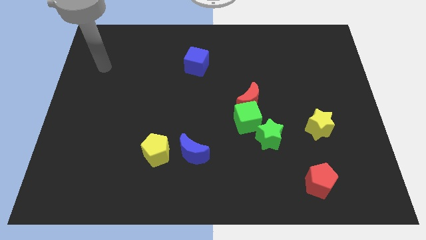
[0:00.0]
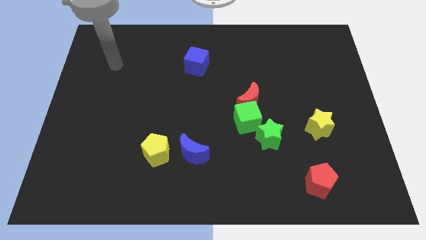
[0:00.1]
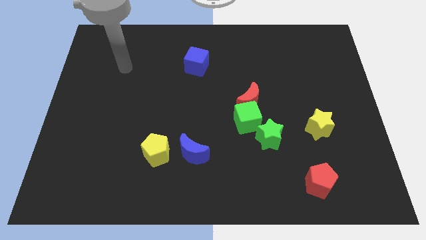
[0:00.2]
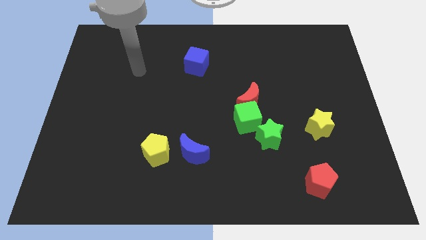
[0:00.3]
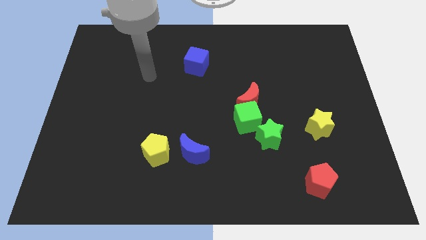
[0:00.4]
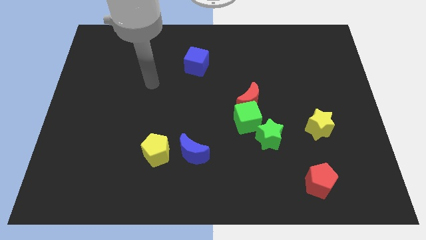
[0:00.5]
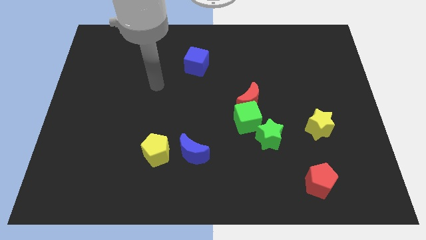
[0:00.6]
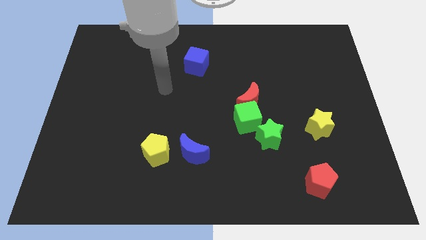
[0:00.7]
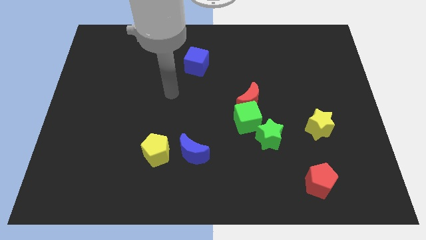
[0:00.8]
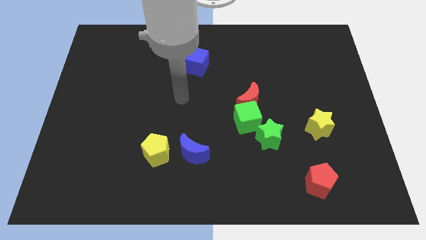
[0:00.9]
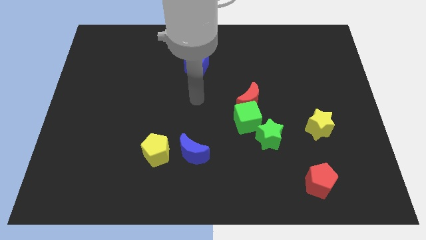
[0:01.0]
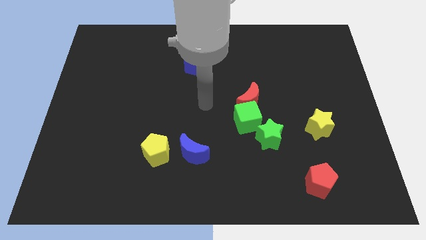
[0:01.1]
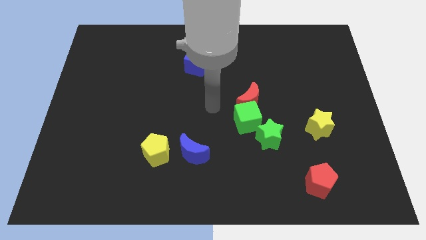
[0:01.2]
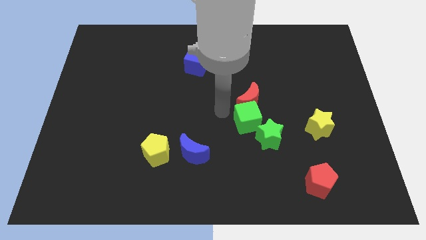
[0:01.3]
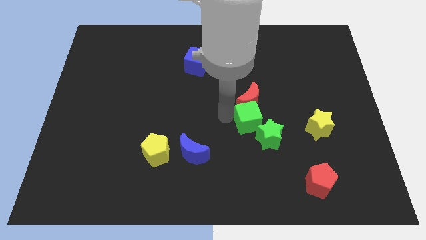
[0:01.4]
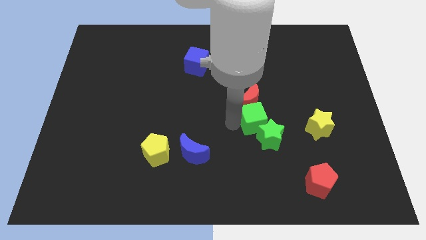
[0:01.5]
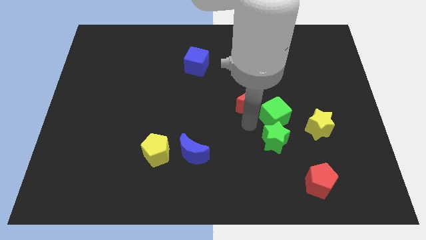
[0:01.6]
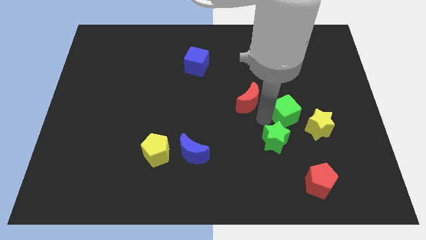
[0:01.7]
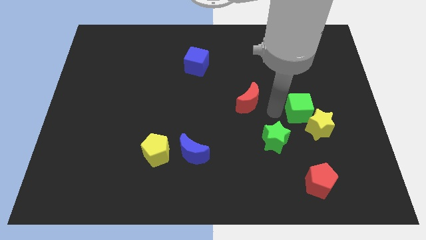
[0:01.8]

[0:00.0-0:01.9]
move the red moon away from the green cube

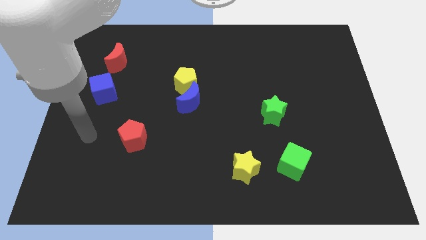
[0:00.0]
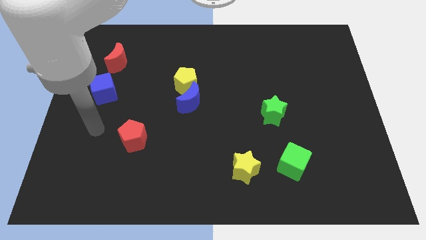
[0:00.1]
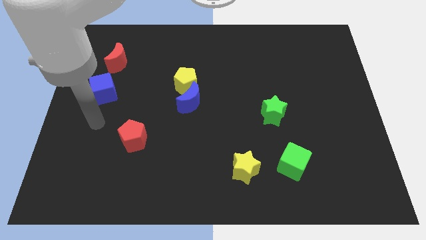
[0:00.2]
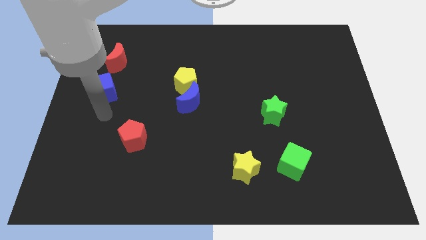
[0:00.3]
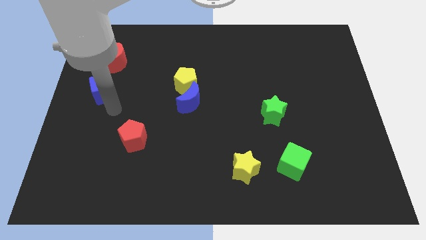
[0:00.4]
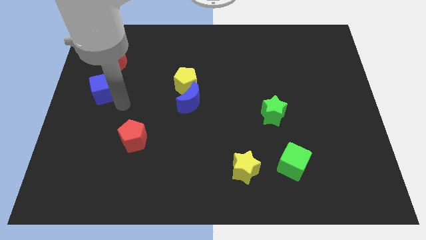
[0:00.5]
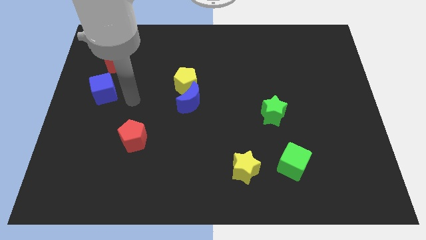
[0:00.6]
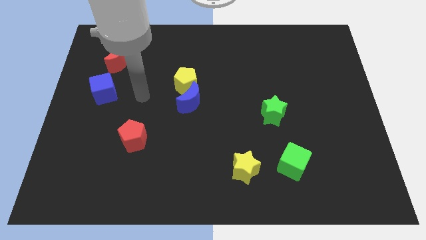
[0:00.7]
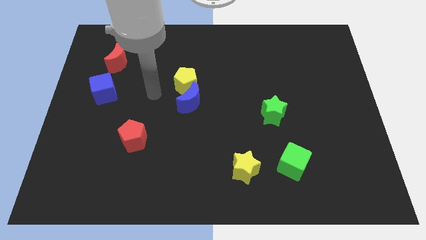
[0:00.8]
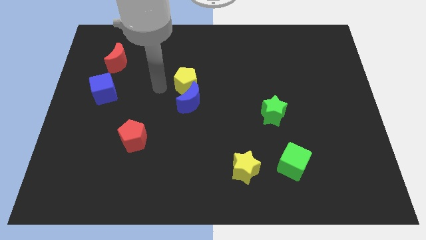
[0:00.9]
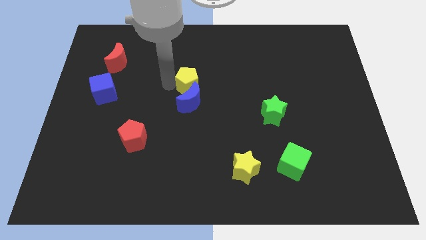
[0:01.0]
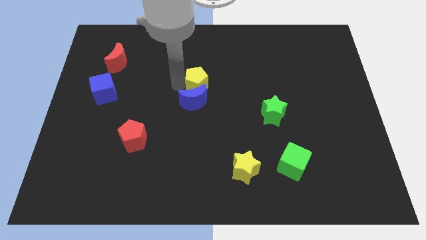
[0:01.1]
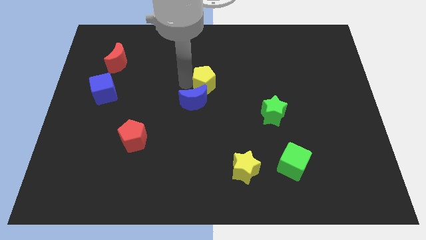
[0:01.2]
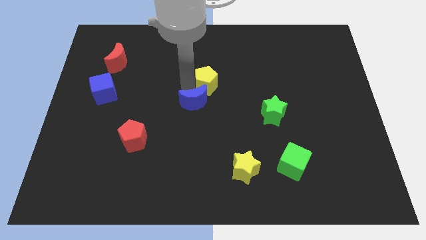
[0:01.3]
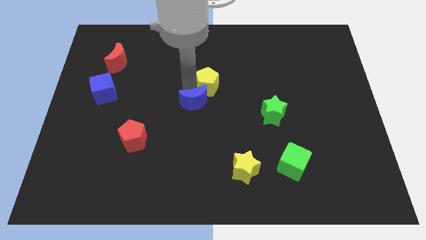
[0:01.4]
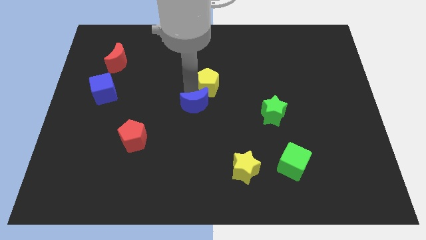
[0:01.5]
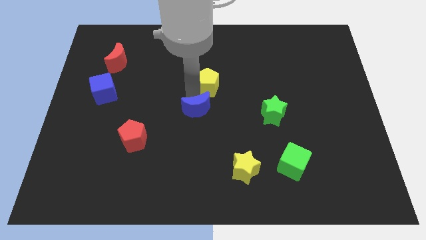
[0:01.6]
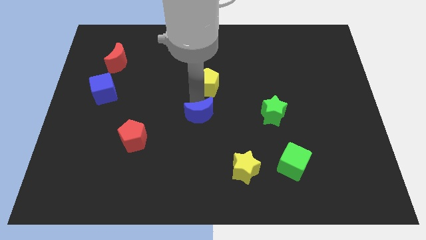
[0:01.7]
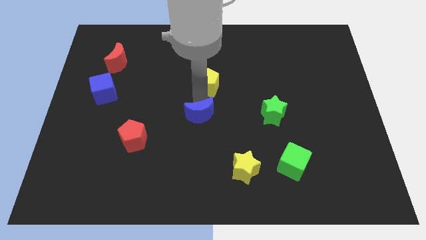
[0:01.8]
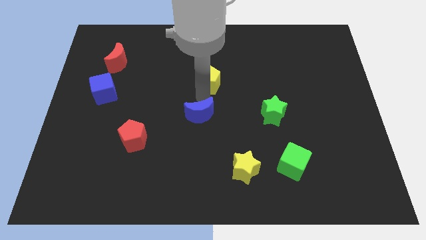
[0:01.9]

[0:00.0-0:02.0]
separate the blue moon from the yellow pentagon

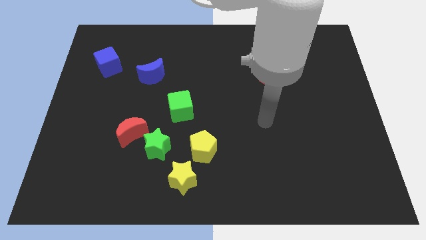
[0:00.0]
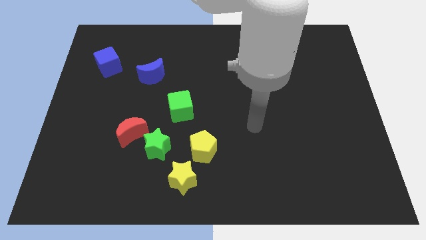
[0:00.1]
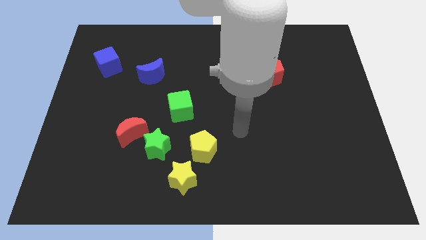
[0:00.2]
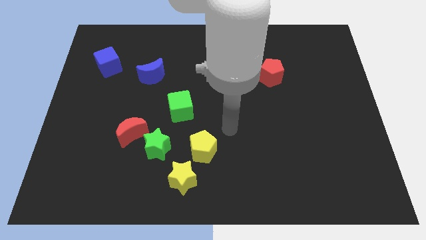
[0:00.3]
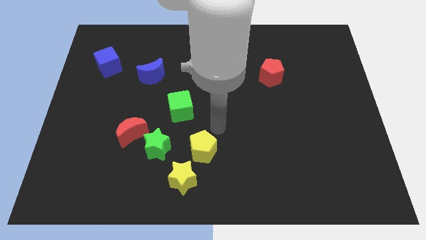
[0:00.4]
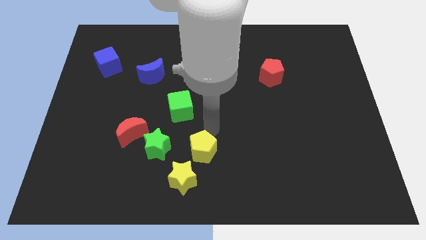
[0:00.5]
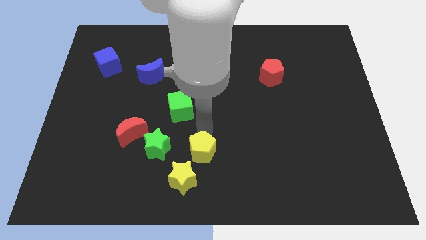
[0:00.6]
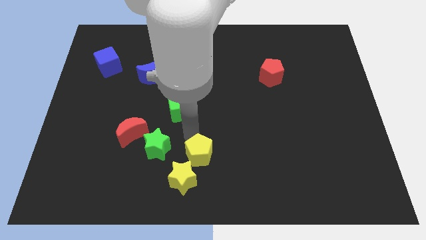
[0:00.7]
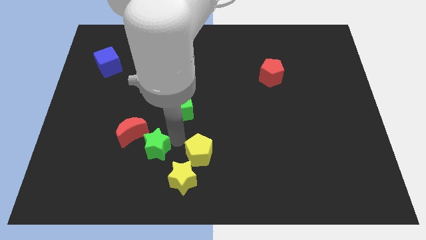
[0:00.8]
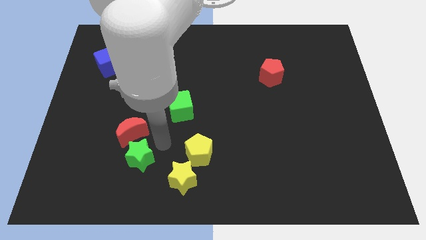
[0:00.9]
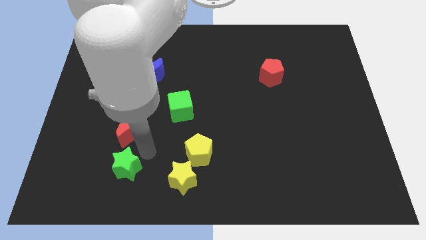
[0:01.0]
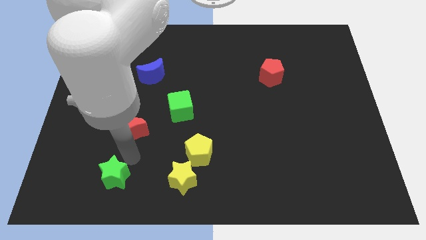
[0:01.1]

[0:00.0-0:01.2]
pull the red moon apart from the green star

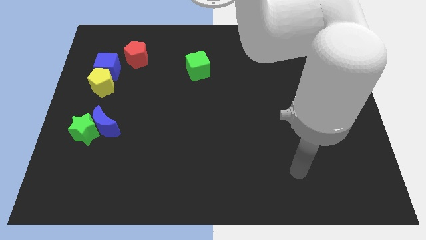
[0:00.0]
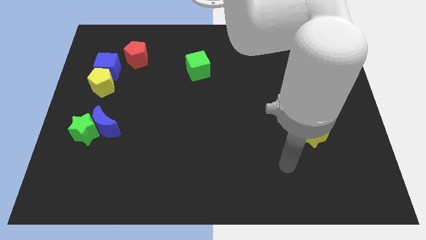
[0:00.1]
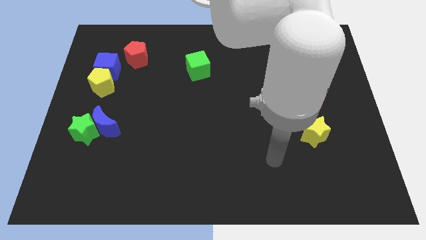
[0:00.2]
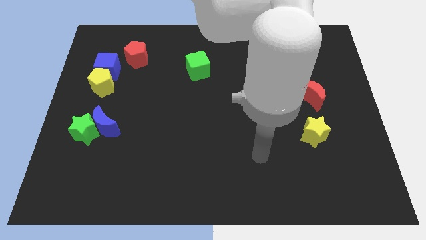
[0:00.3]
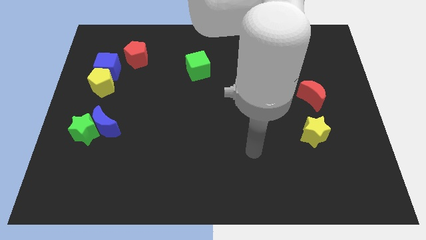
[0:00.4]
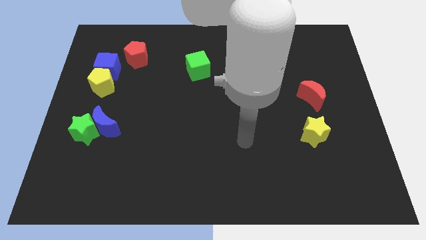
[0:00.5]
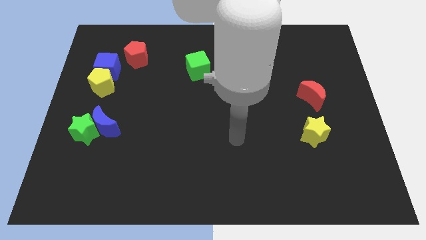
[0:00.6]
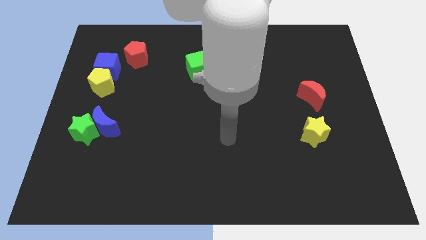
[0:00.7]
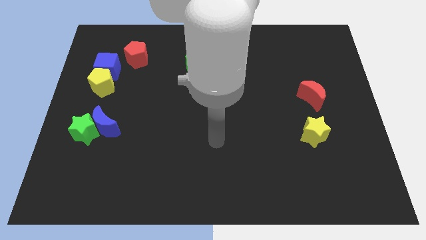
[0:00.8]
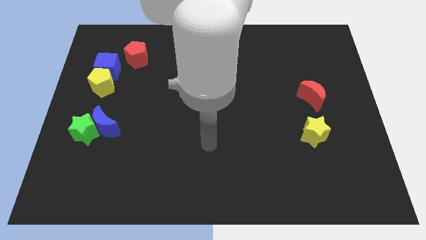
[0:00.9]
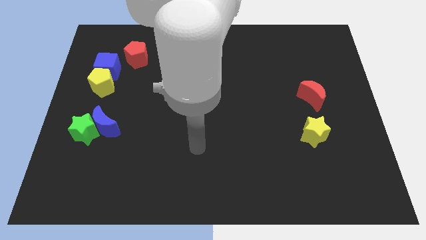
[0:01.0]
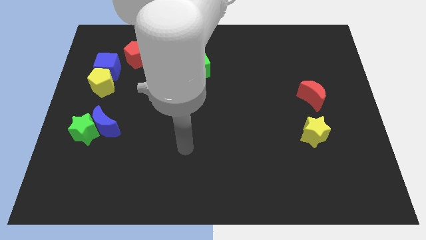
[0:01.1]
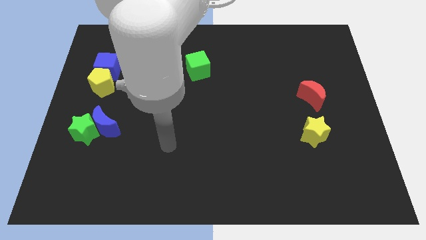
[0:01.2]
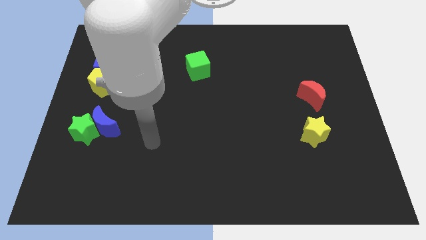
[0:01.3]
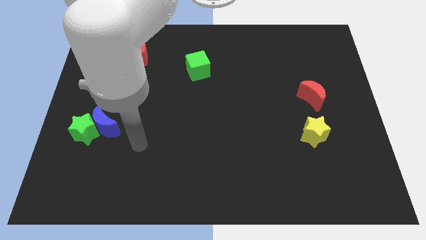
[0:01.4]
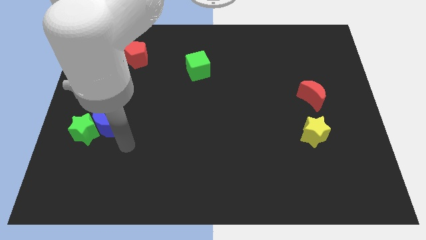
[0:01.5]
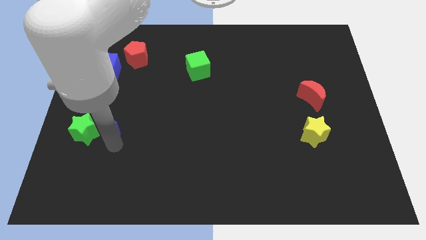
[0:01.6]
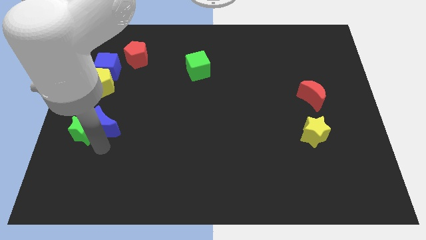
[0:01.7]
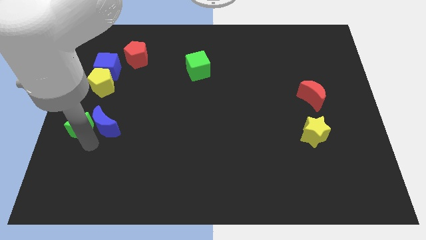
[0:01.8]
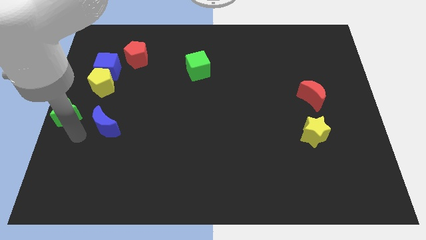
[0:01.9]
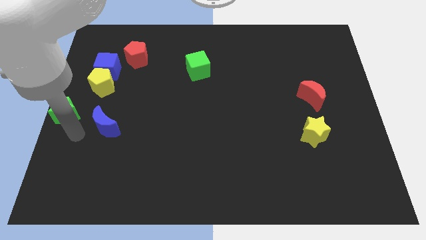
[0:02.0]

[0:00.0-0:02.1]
separate the blue moon from the green star

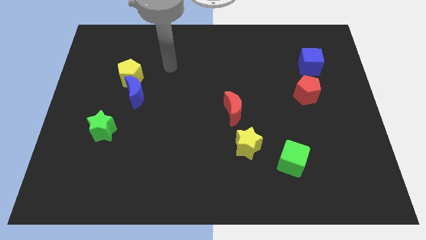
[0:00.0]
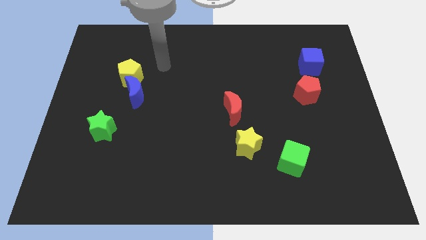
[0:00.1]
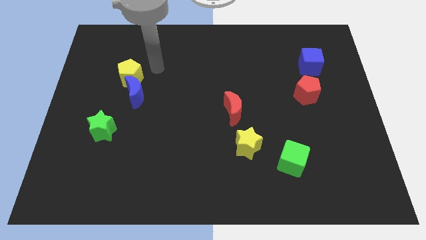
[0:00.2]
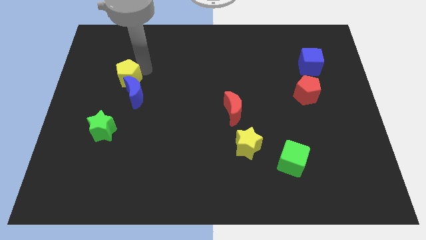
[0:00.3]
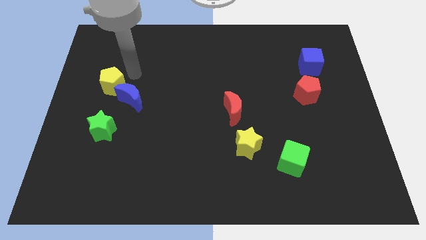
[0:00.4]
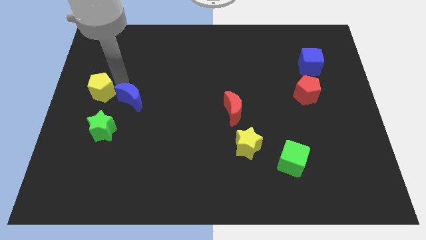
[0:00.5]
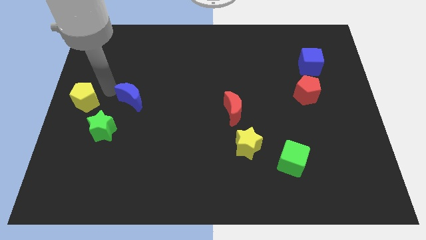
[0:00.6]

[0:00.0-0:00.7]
pull the blue moon apart from the yellow pentagon

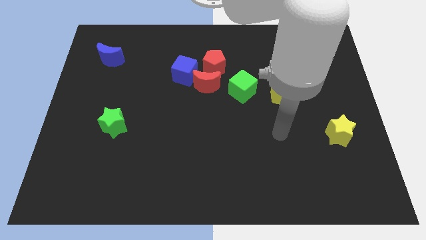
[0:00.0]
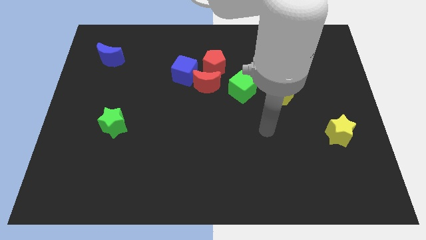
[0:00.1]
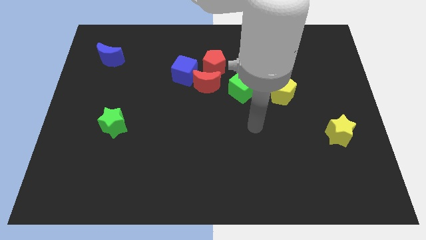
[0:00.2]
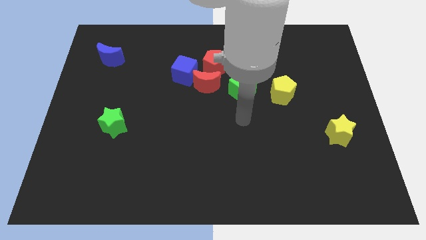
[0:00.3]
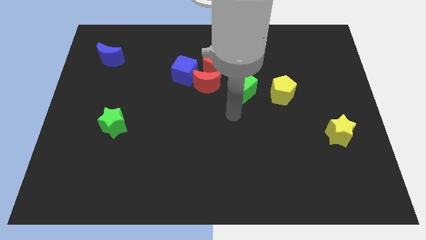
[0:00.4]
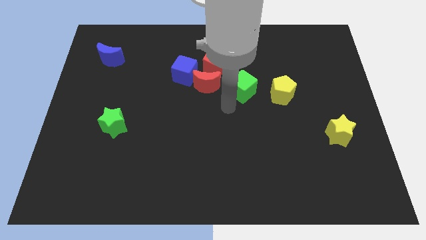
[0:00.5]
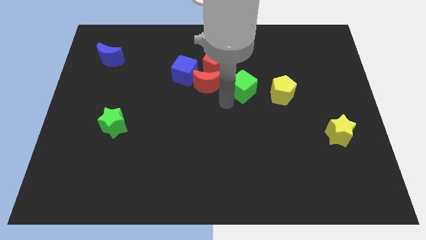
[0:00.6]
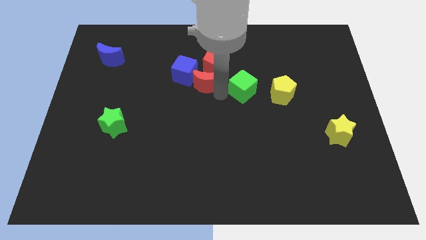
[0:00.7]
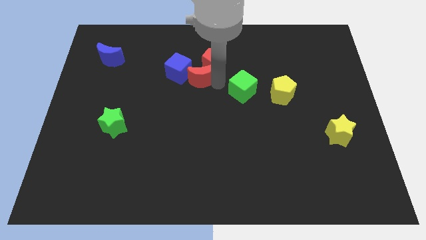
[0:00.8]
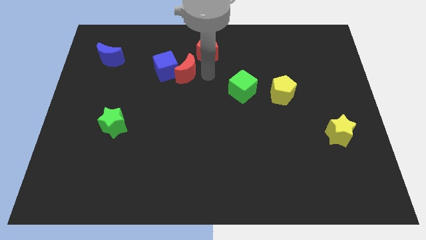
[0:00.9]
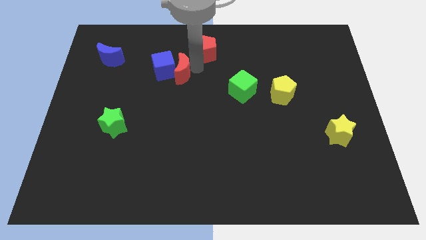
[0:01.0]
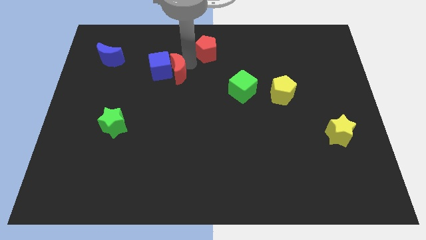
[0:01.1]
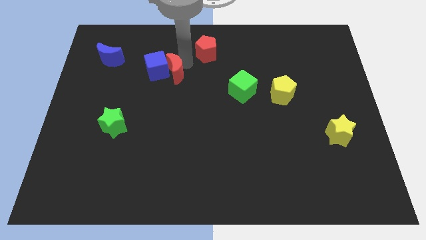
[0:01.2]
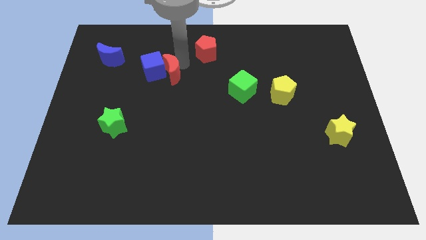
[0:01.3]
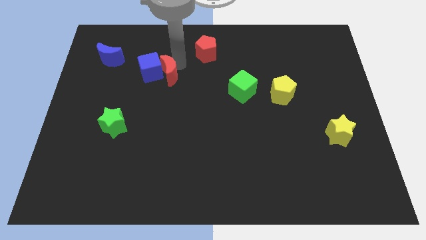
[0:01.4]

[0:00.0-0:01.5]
pull the blue cube apart from the red moon and red pentagon
